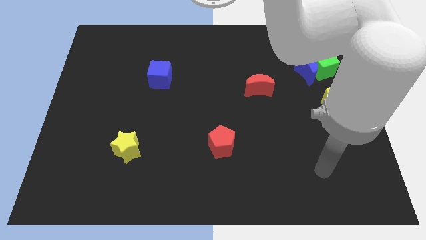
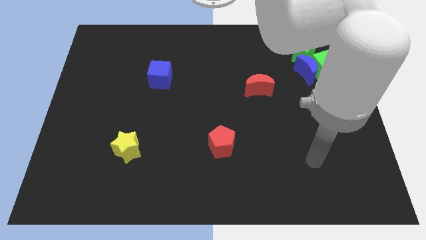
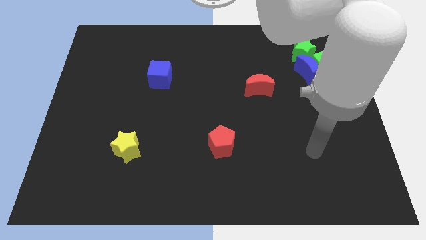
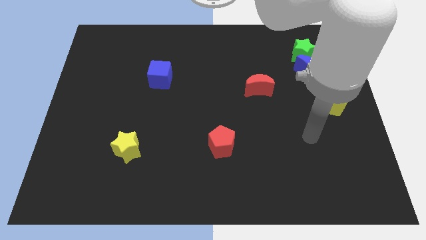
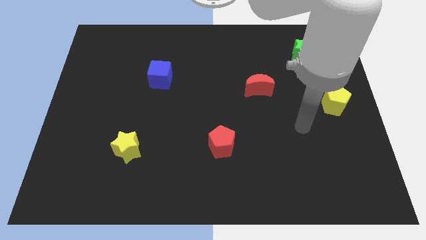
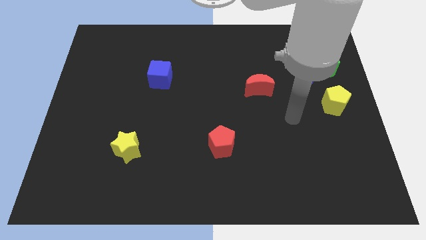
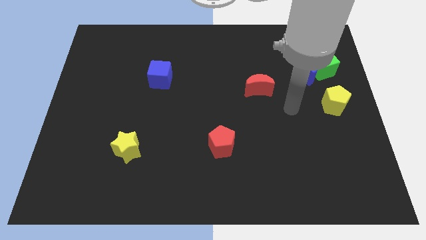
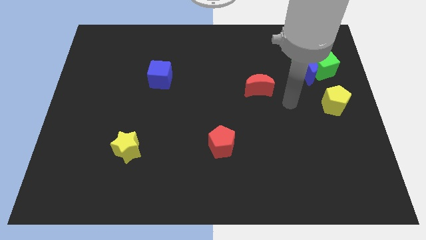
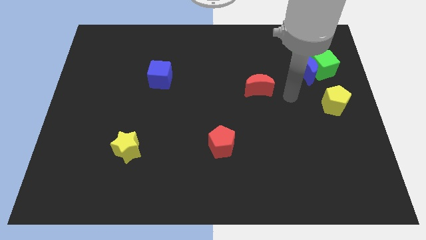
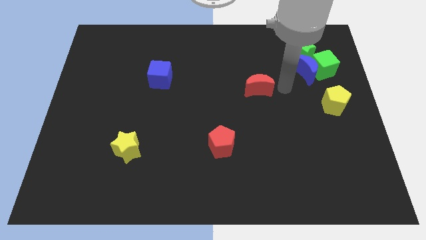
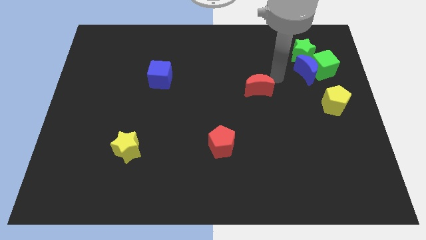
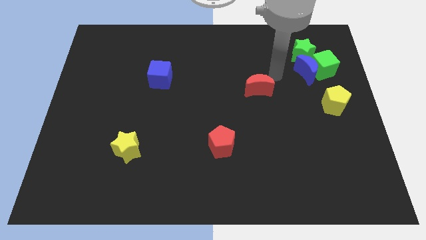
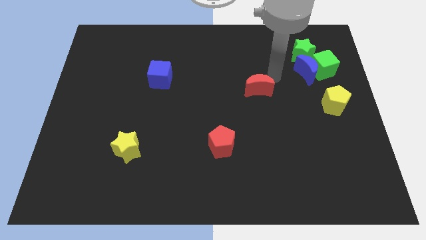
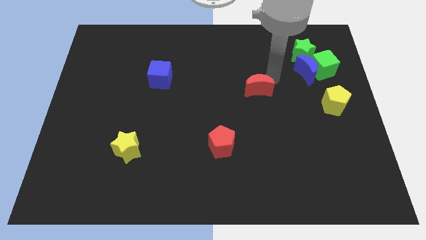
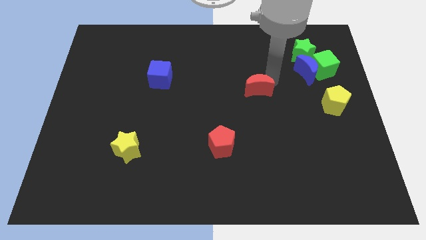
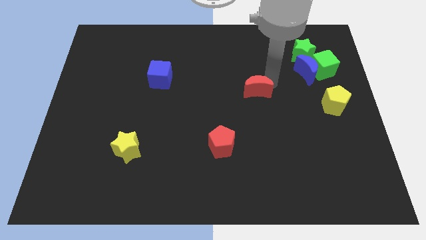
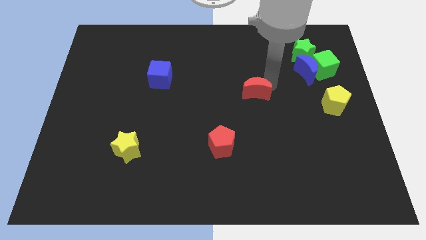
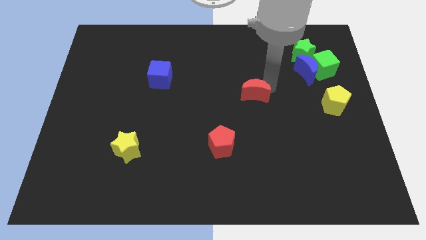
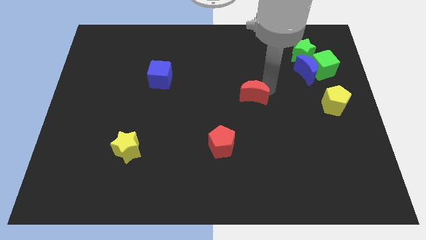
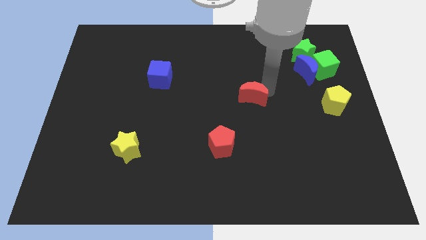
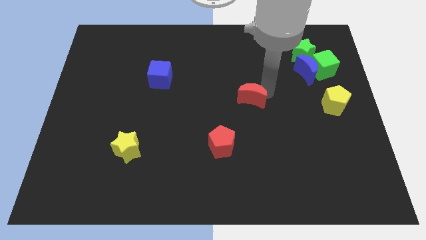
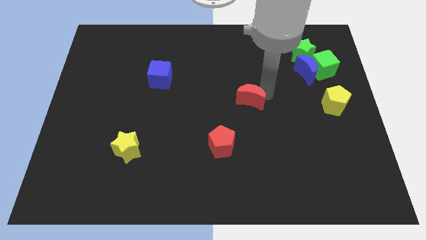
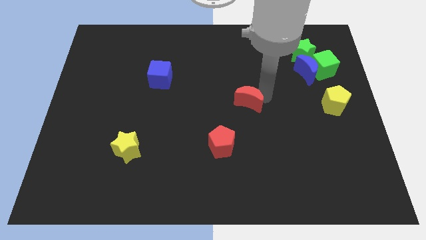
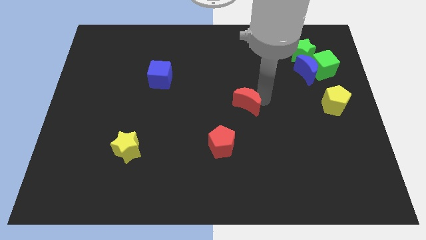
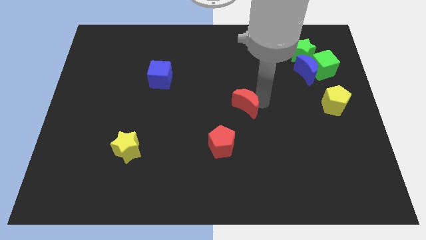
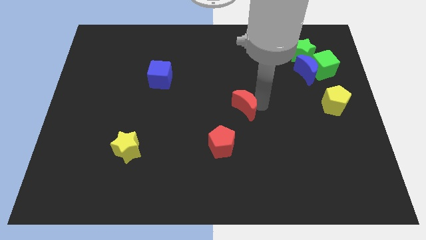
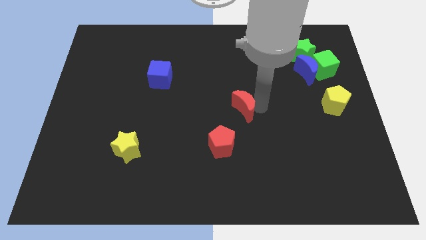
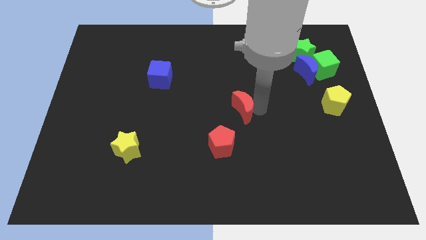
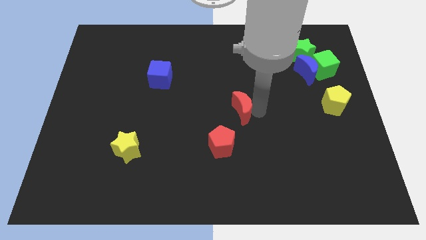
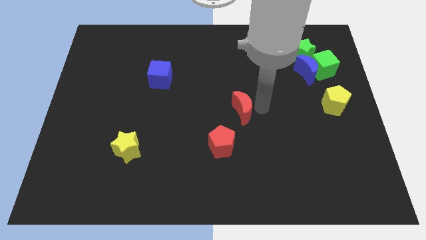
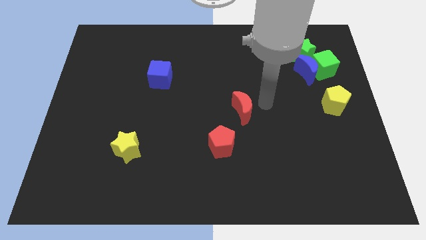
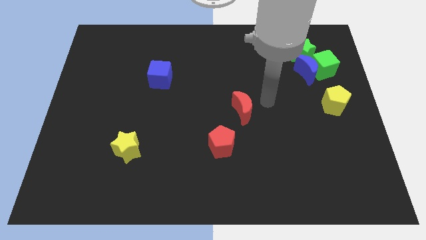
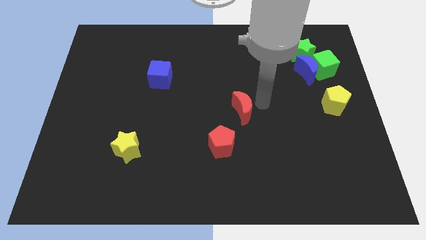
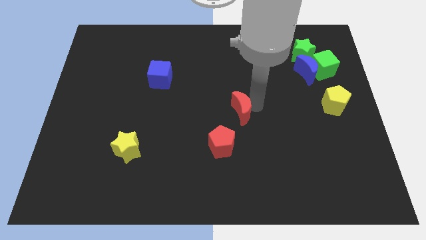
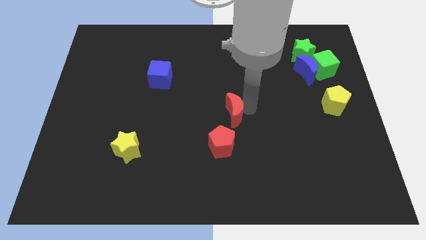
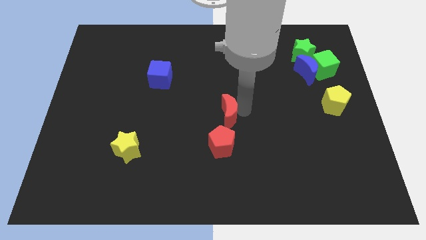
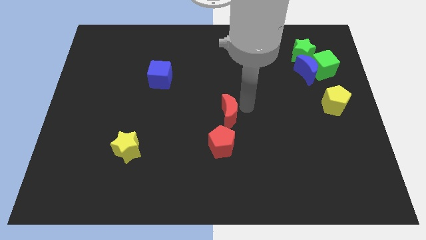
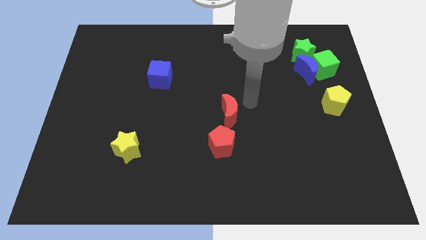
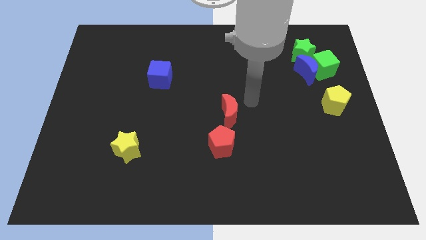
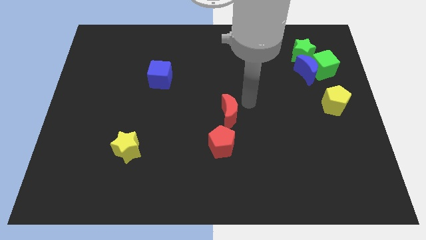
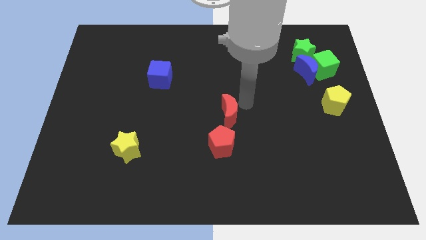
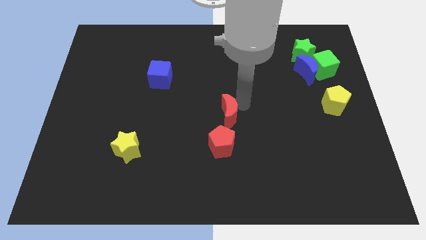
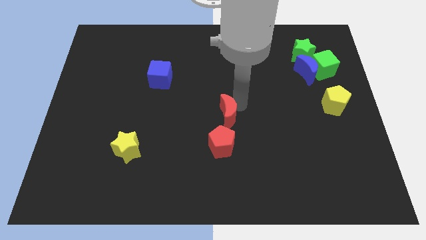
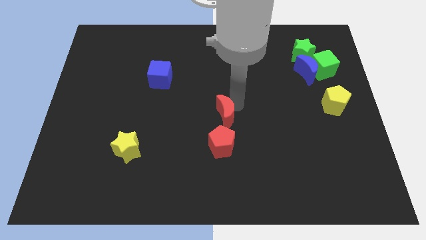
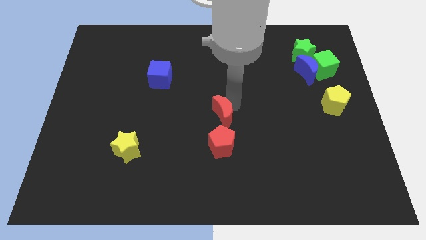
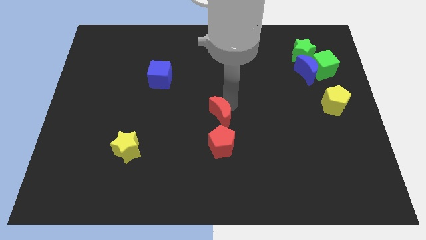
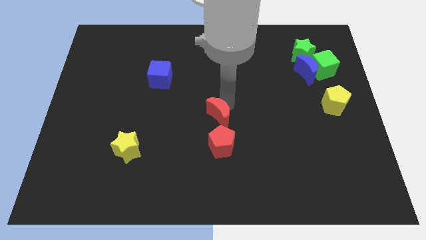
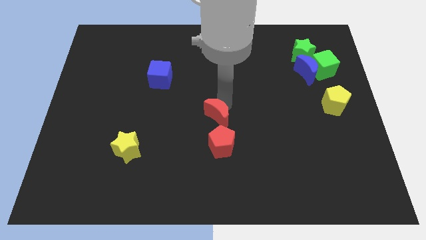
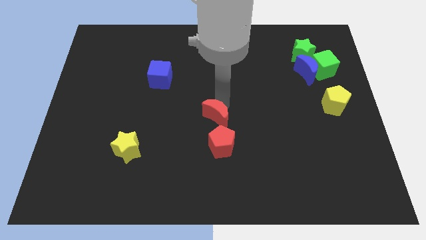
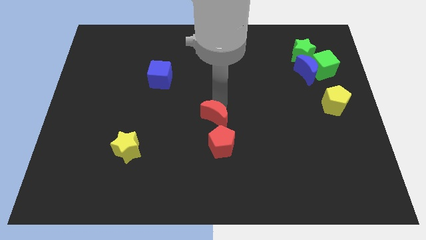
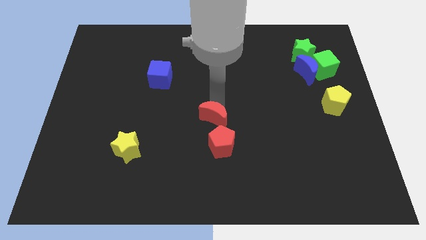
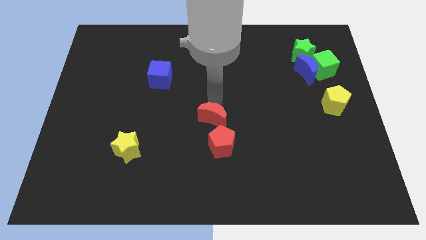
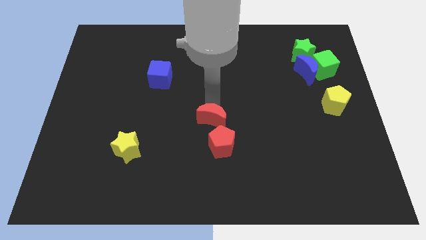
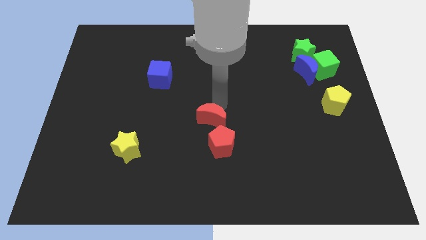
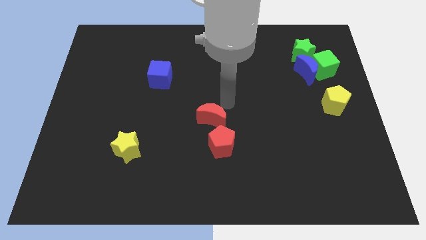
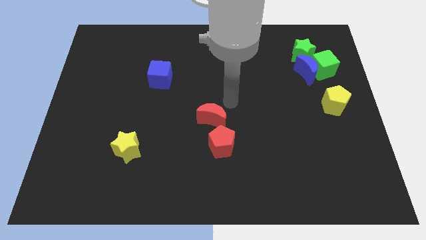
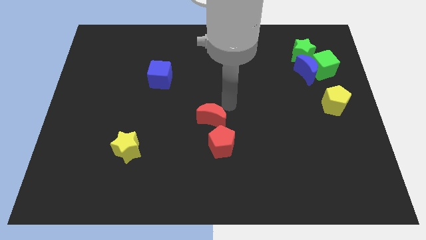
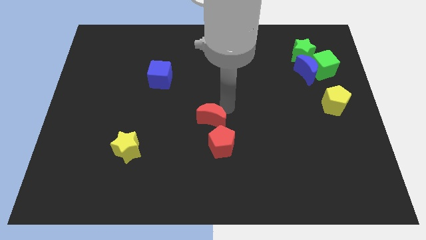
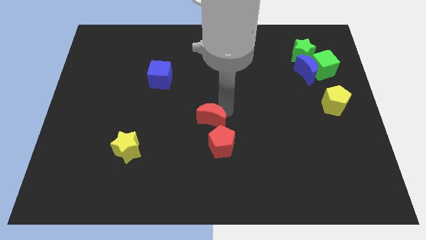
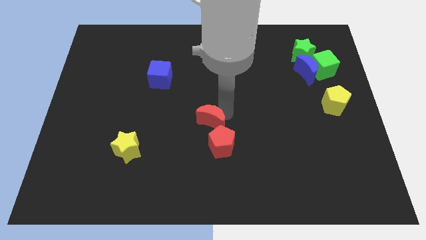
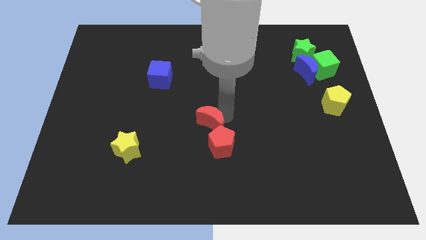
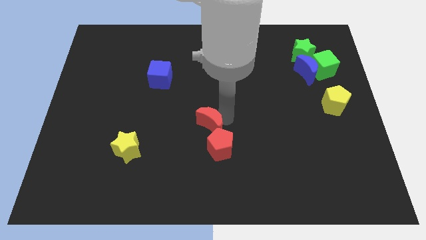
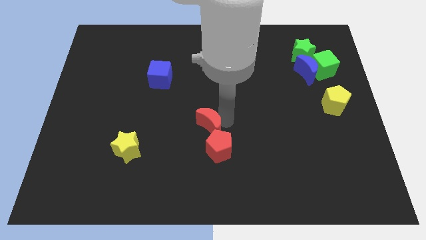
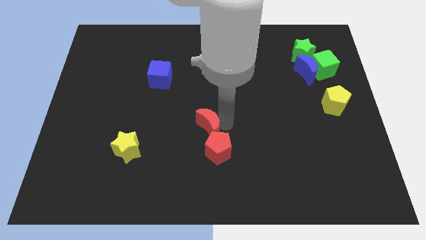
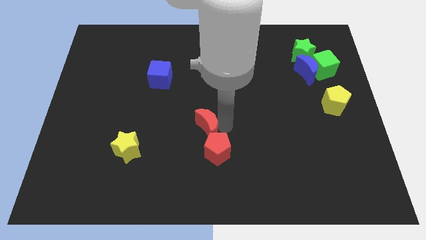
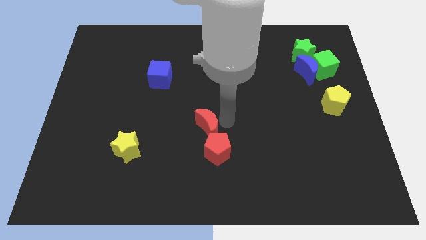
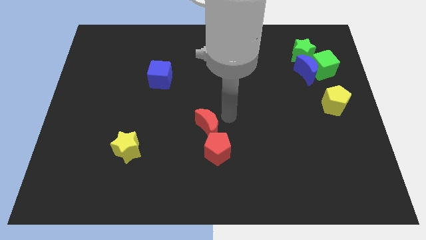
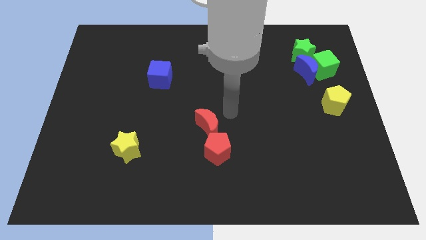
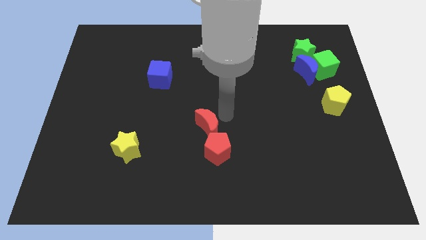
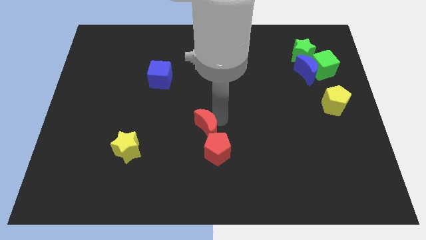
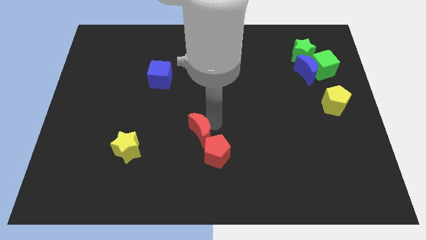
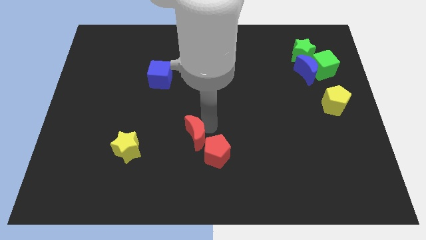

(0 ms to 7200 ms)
move the red moon down and to the left

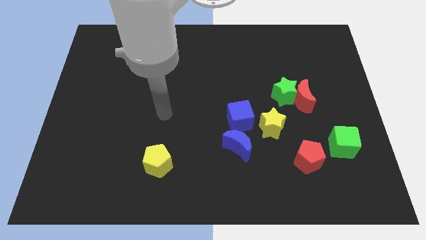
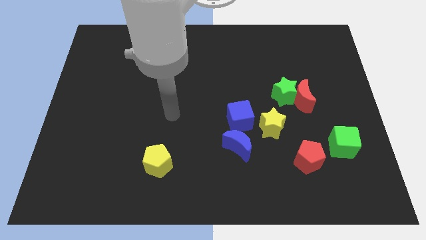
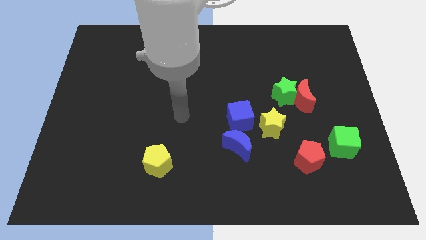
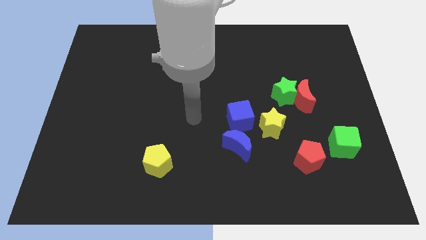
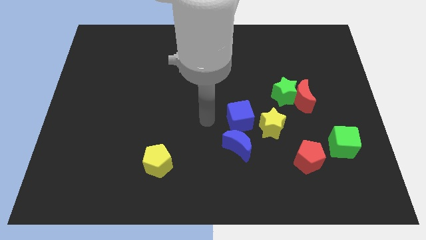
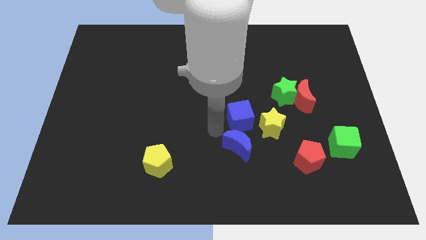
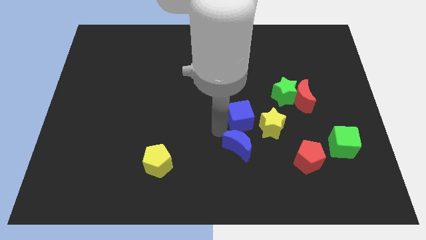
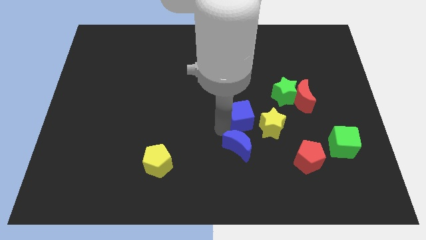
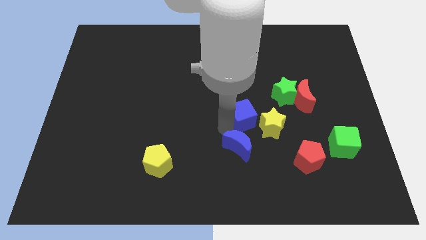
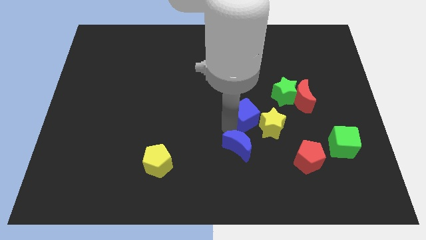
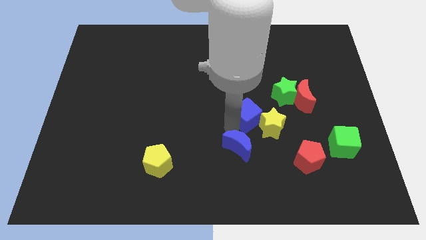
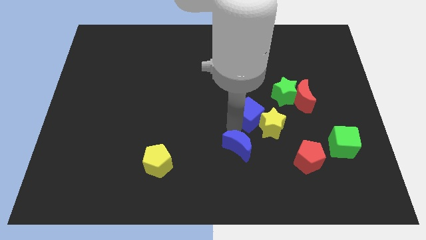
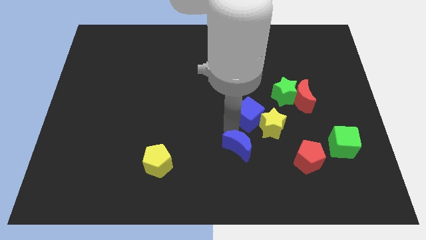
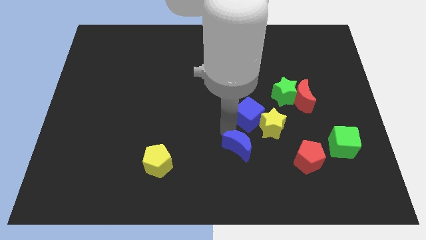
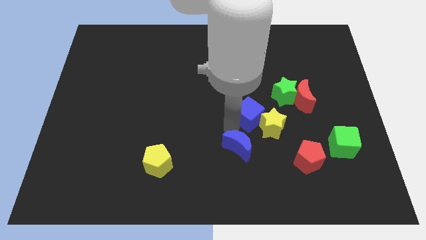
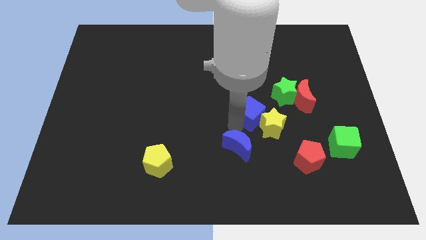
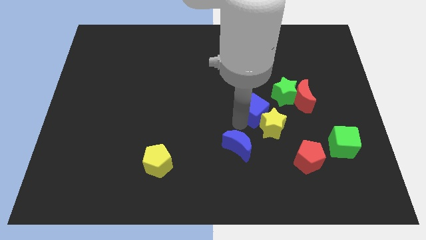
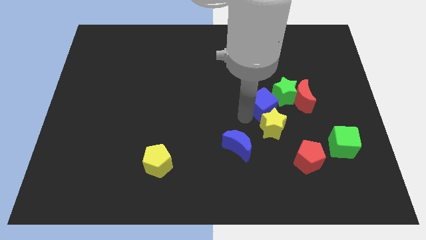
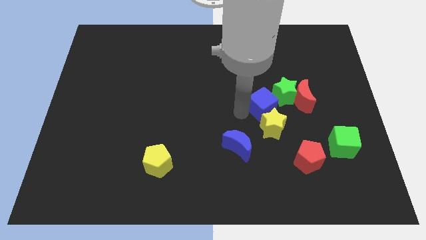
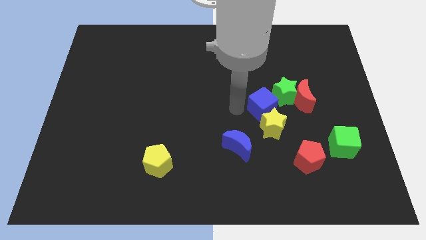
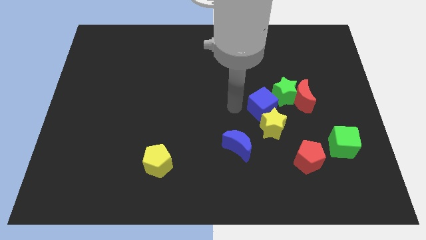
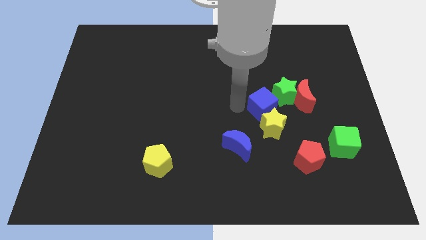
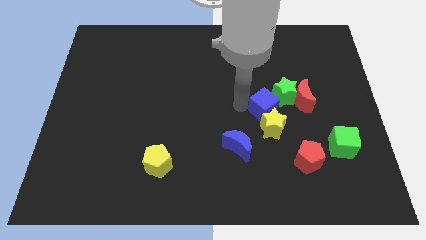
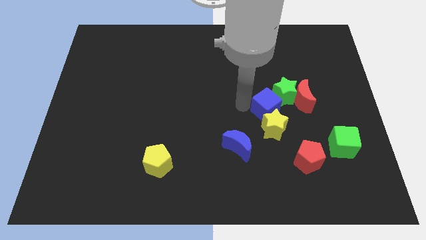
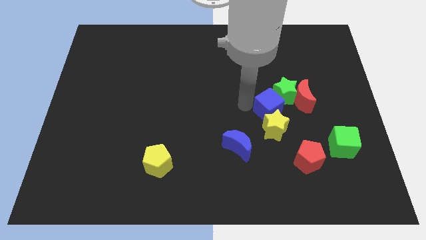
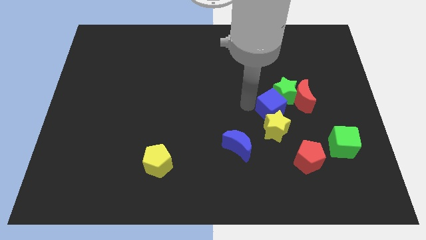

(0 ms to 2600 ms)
move the blue cube to the right slightly
